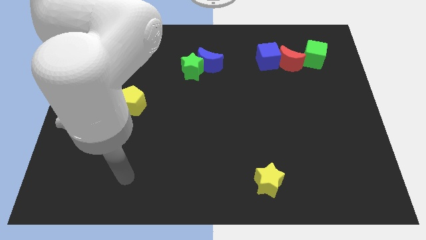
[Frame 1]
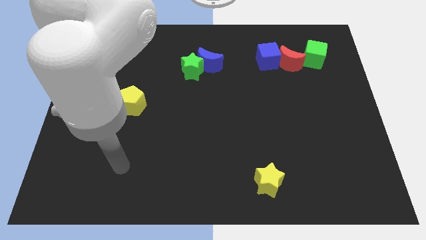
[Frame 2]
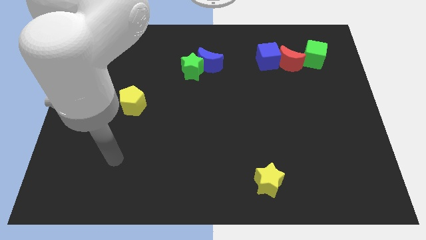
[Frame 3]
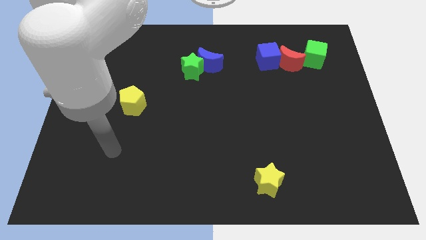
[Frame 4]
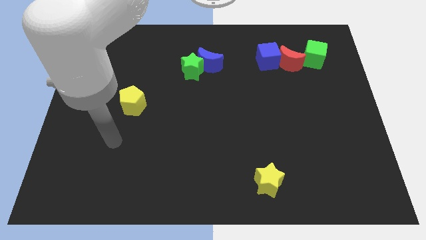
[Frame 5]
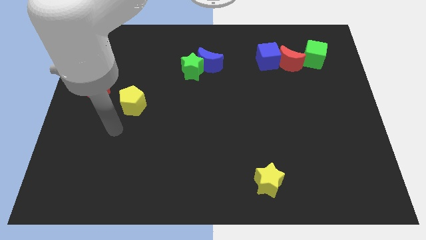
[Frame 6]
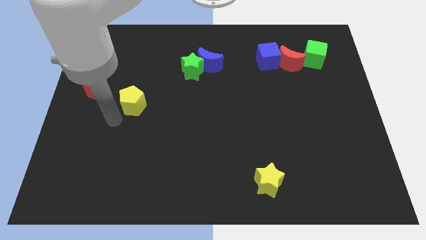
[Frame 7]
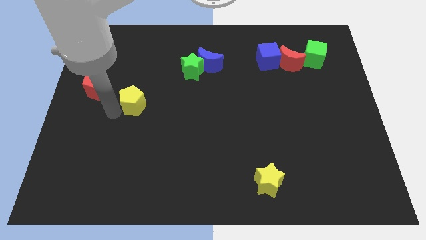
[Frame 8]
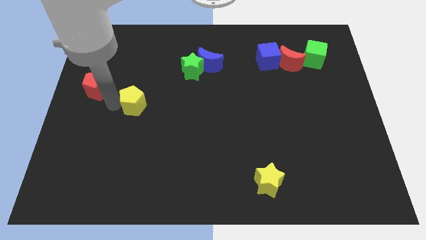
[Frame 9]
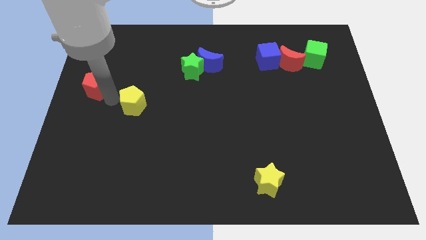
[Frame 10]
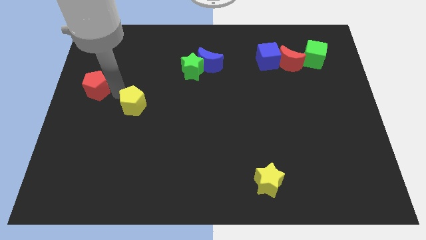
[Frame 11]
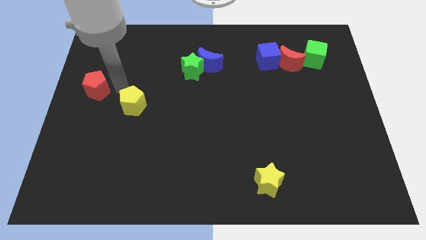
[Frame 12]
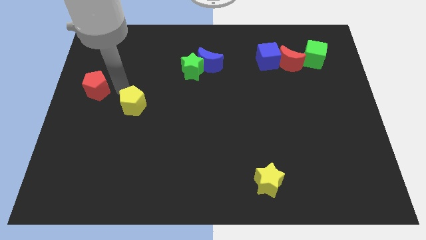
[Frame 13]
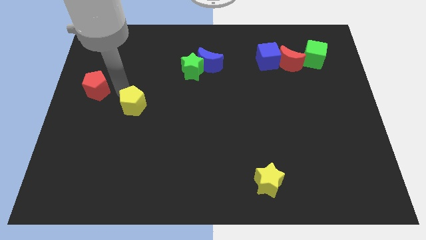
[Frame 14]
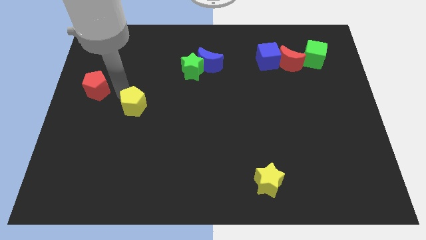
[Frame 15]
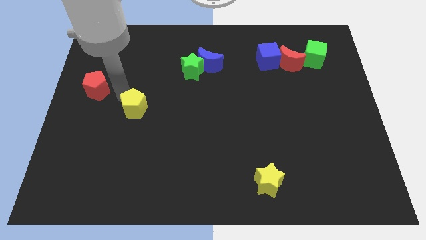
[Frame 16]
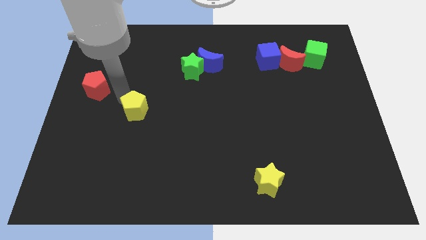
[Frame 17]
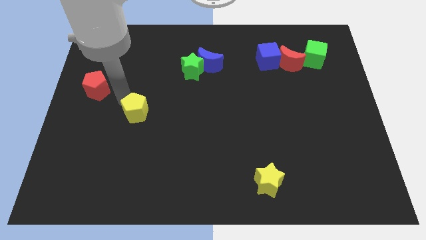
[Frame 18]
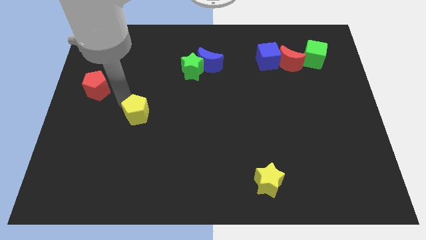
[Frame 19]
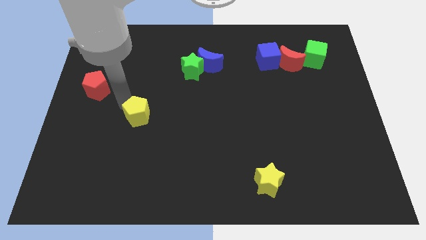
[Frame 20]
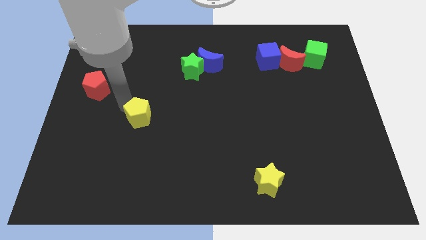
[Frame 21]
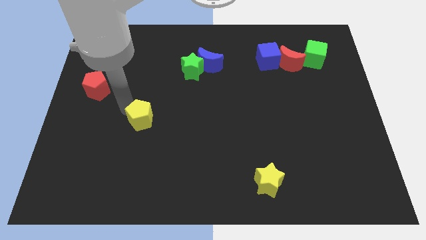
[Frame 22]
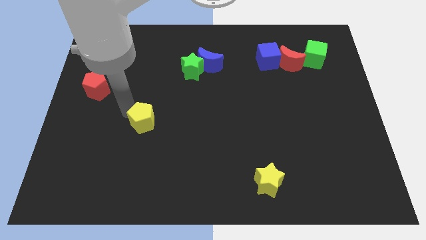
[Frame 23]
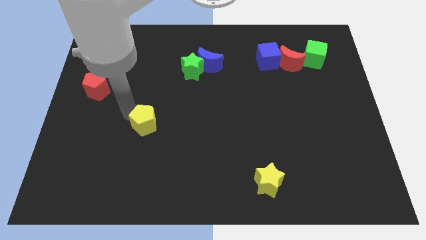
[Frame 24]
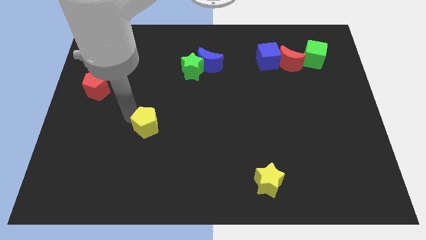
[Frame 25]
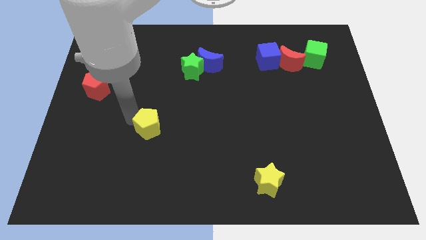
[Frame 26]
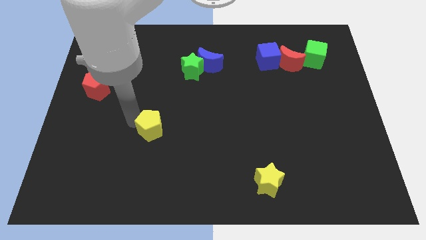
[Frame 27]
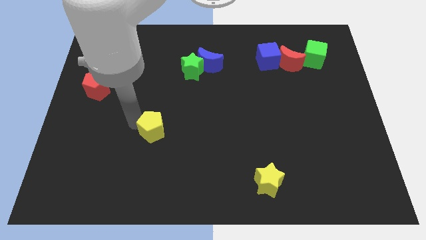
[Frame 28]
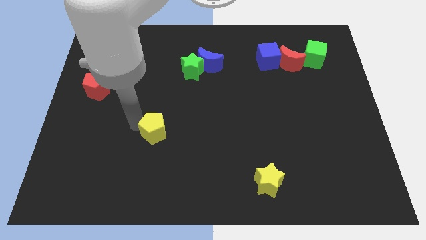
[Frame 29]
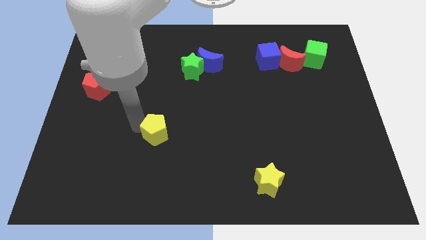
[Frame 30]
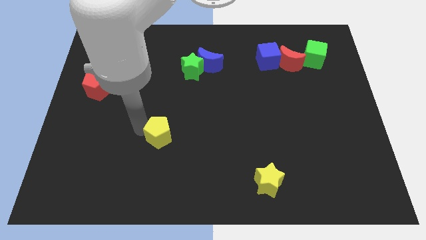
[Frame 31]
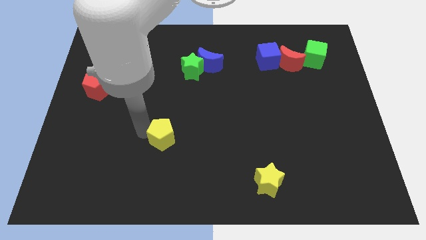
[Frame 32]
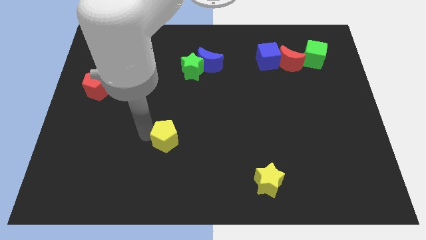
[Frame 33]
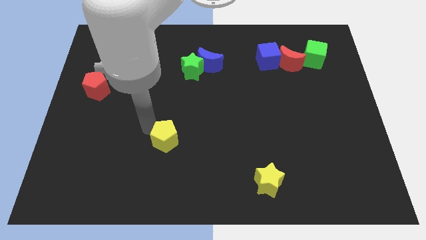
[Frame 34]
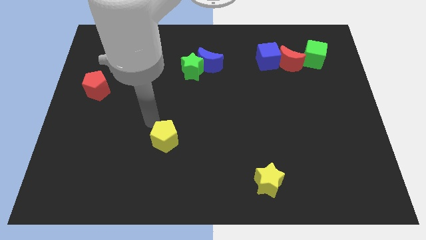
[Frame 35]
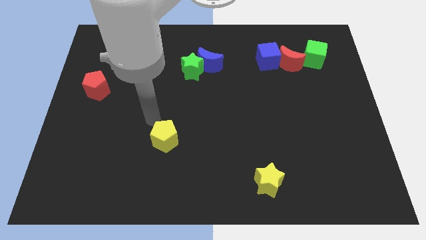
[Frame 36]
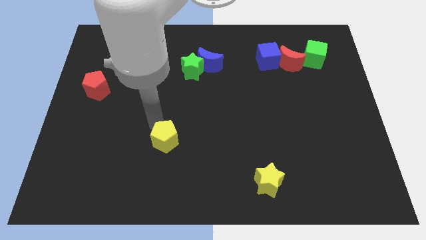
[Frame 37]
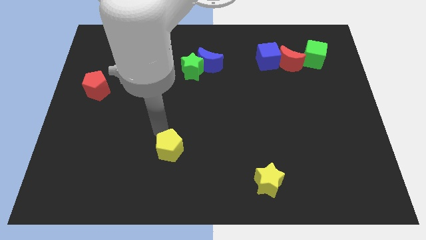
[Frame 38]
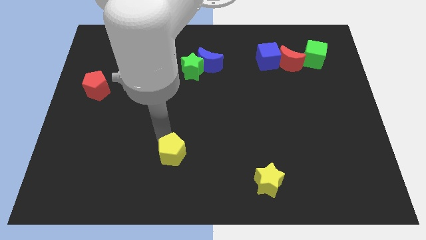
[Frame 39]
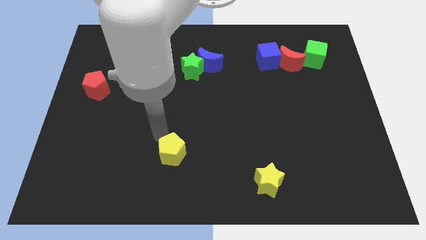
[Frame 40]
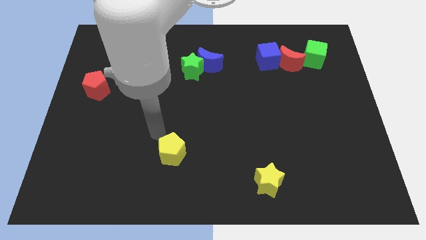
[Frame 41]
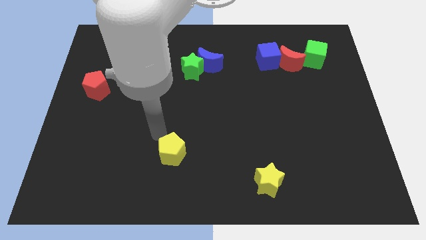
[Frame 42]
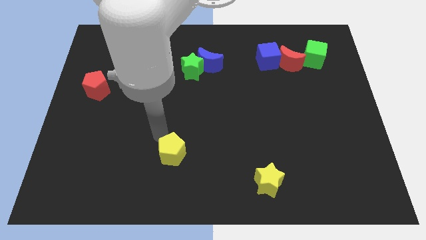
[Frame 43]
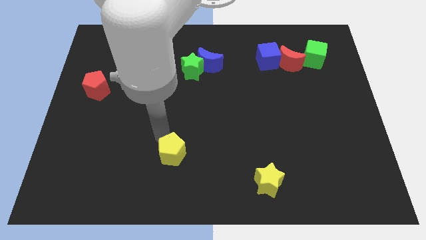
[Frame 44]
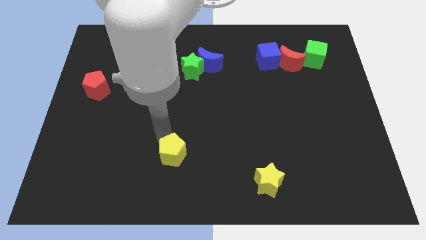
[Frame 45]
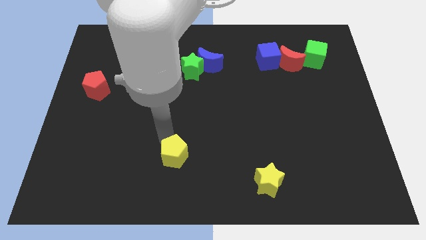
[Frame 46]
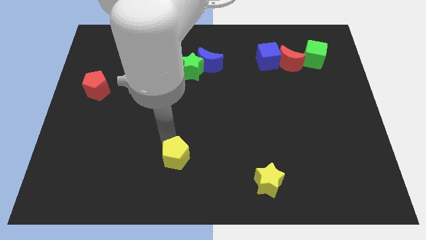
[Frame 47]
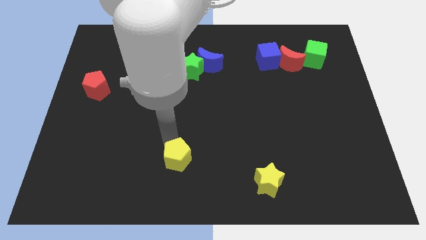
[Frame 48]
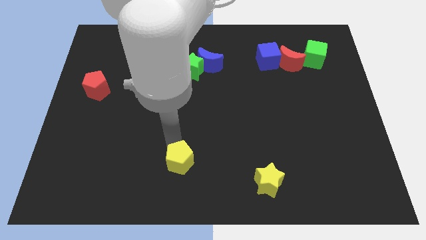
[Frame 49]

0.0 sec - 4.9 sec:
push the yellow pentagon to the bottom side

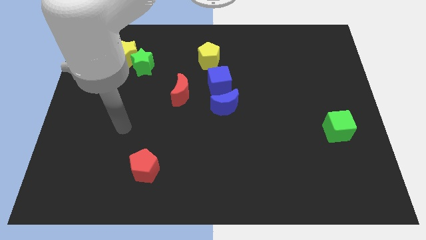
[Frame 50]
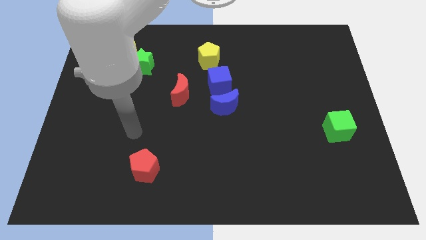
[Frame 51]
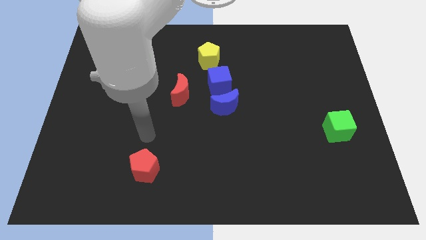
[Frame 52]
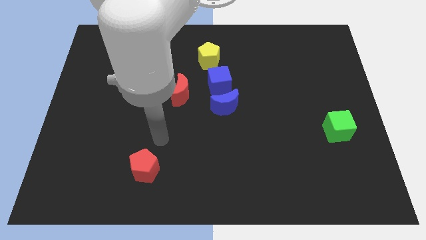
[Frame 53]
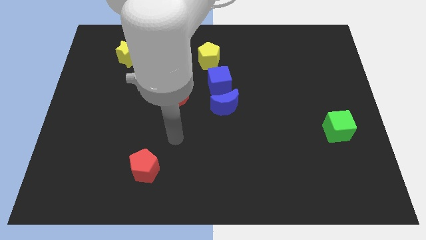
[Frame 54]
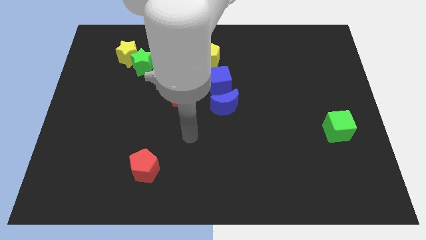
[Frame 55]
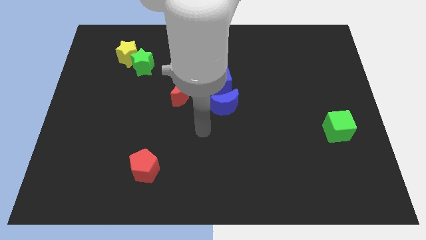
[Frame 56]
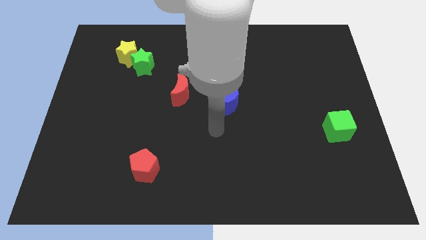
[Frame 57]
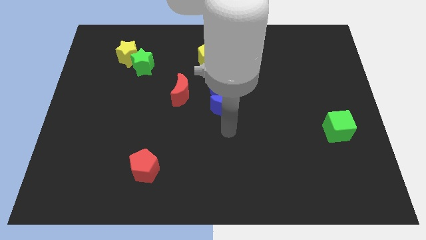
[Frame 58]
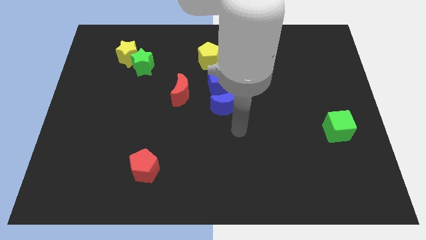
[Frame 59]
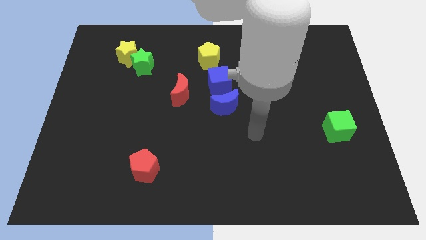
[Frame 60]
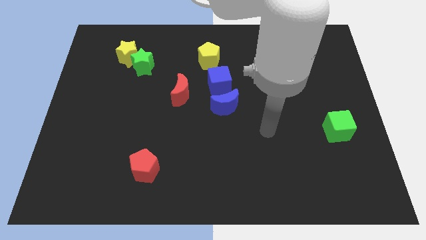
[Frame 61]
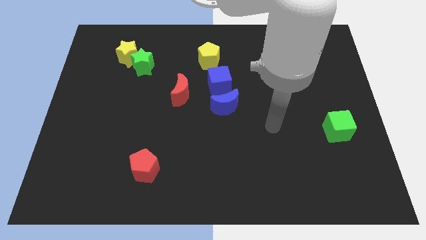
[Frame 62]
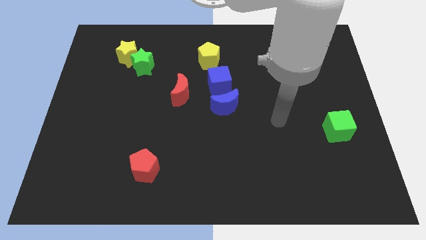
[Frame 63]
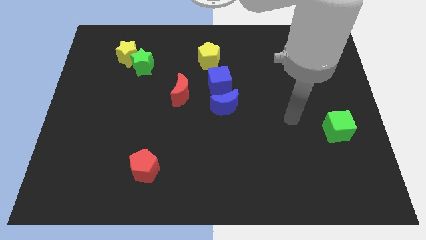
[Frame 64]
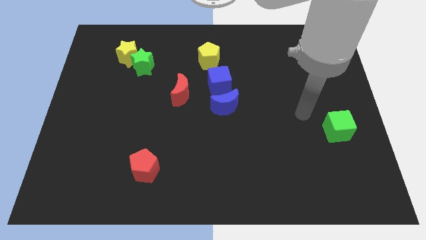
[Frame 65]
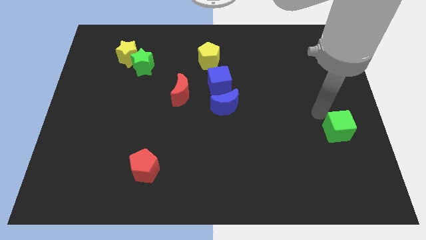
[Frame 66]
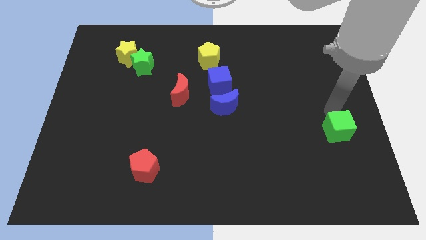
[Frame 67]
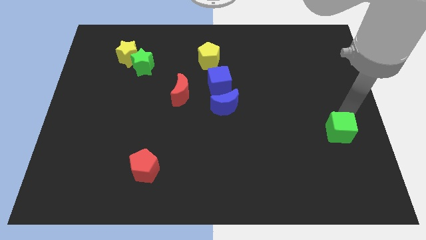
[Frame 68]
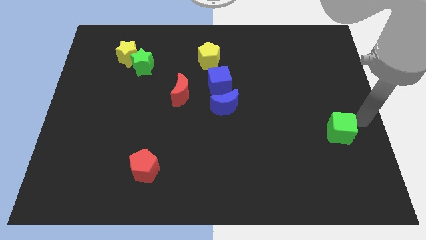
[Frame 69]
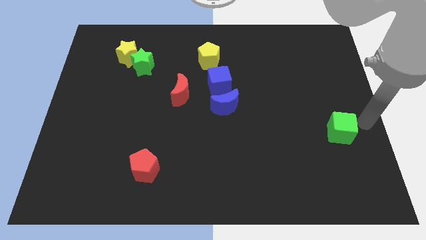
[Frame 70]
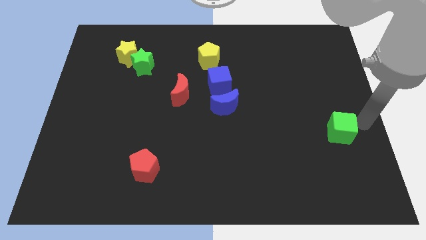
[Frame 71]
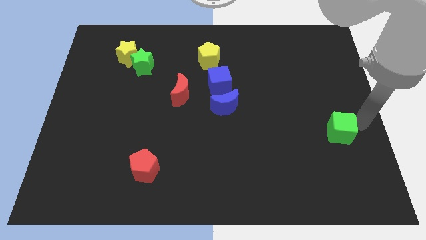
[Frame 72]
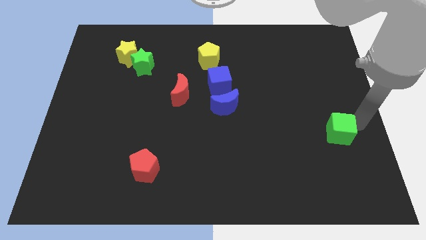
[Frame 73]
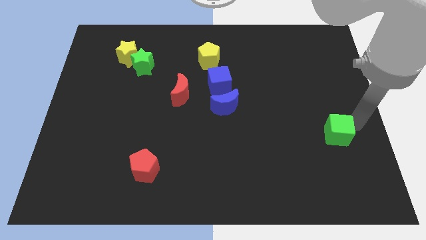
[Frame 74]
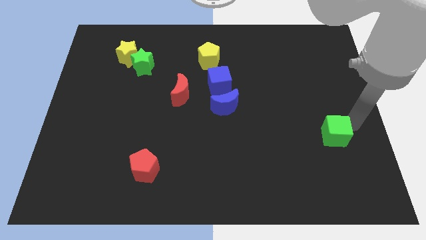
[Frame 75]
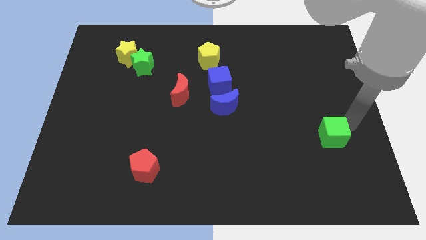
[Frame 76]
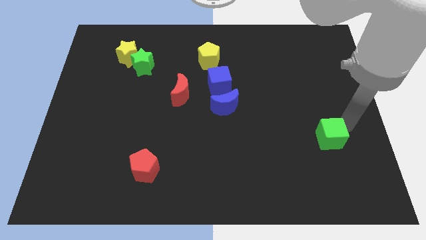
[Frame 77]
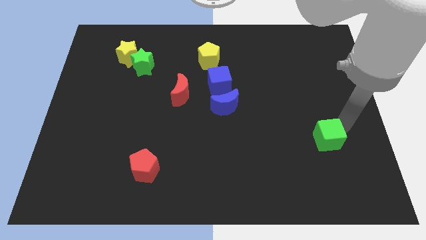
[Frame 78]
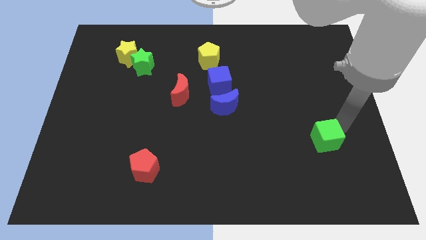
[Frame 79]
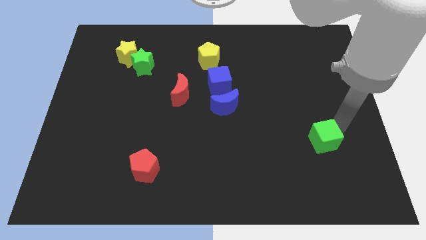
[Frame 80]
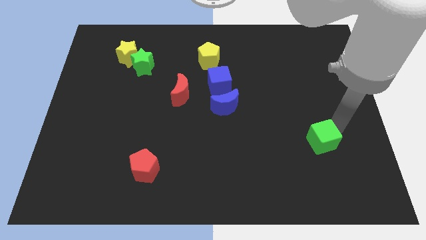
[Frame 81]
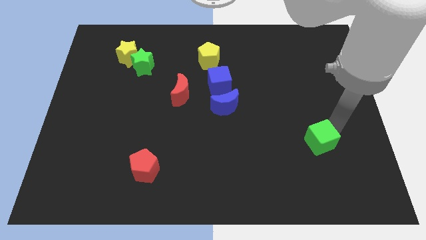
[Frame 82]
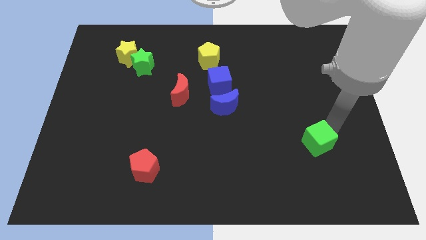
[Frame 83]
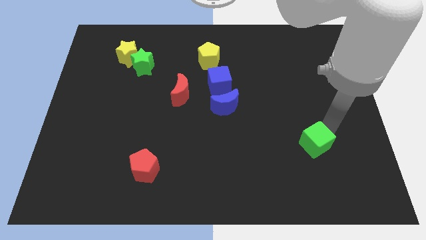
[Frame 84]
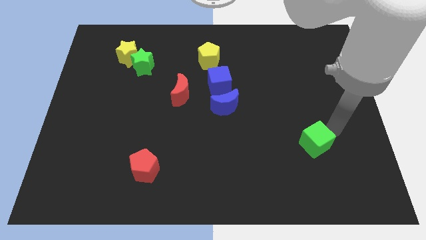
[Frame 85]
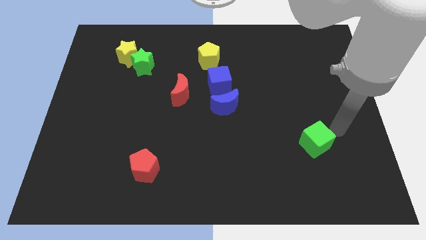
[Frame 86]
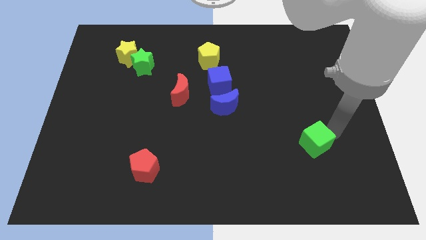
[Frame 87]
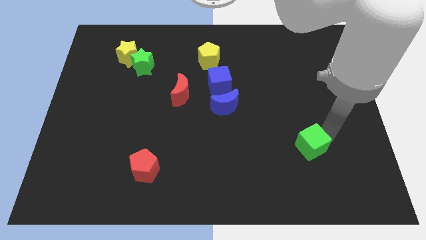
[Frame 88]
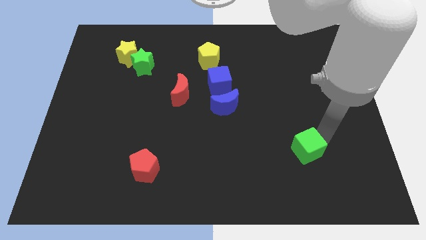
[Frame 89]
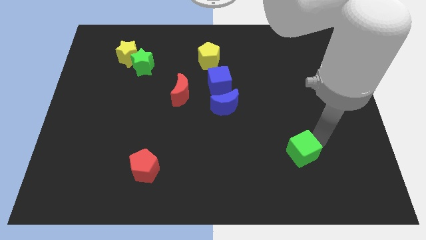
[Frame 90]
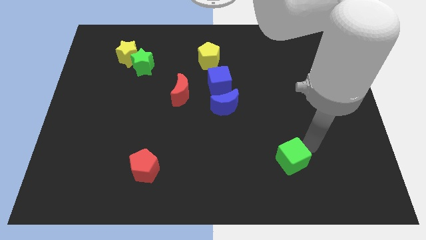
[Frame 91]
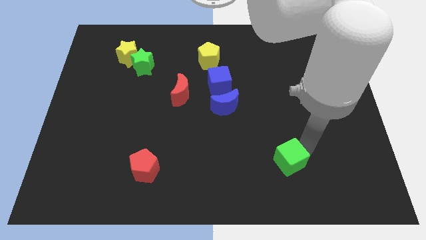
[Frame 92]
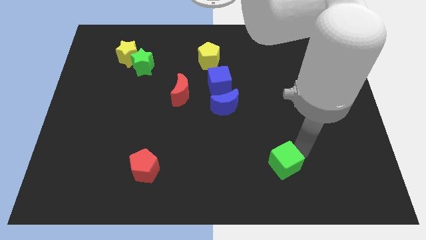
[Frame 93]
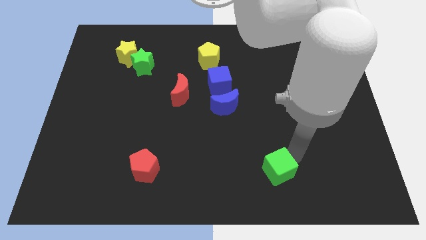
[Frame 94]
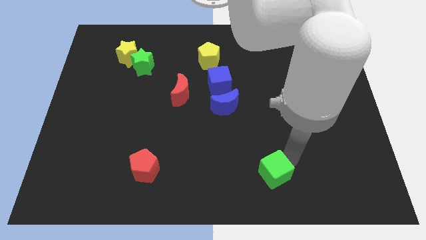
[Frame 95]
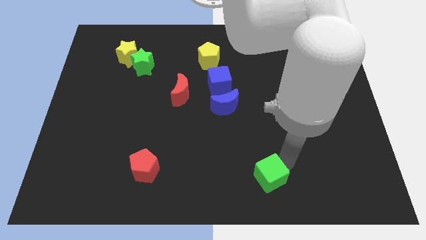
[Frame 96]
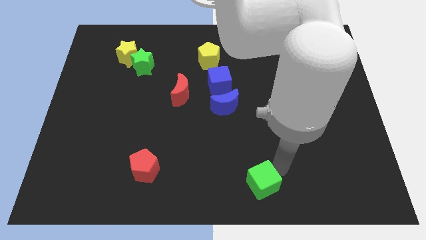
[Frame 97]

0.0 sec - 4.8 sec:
push the green cube to the bottom
